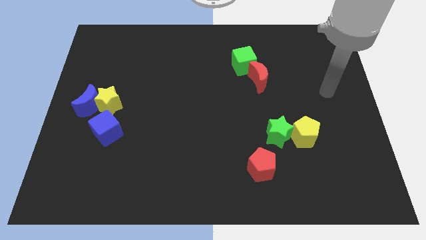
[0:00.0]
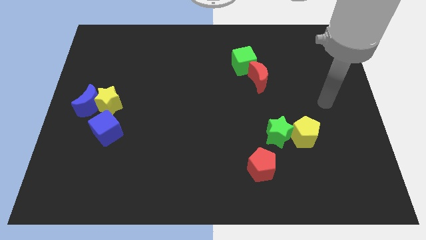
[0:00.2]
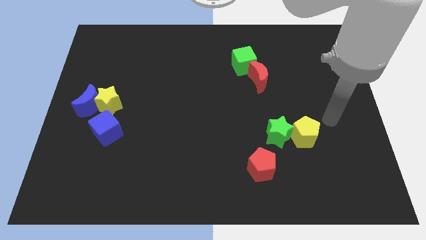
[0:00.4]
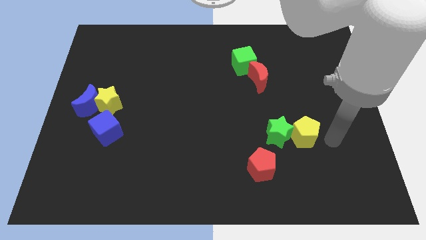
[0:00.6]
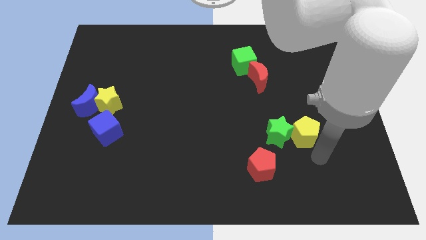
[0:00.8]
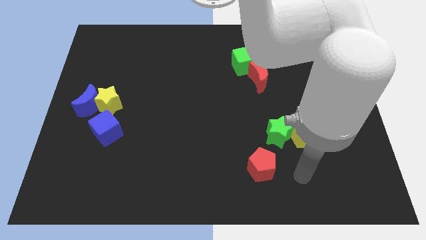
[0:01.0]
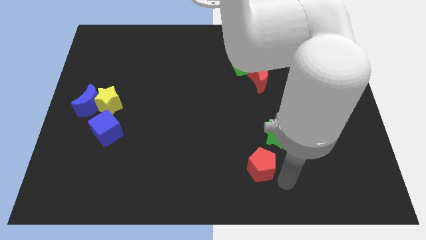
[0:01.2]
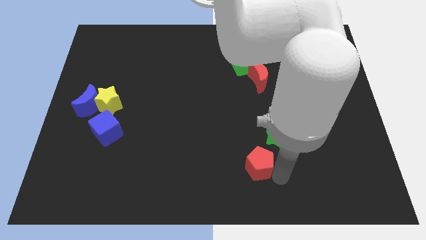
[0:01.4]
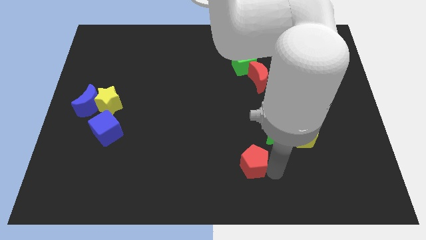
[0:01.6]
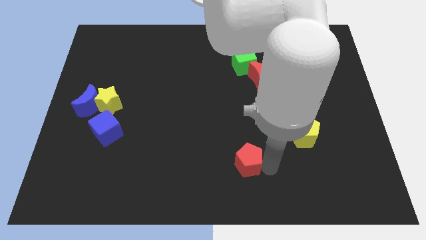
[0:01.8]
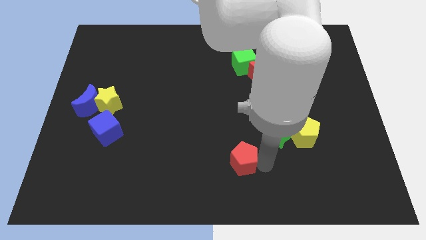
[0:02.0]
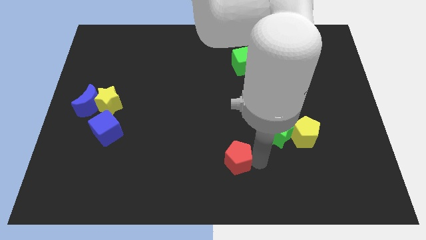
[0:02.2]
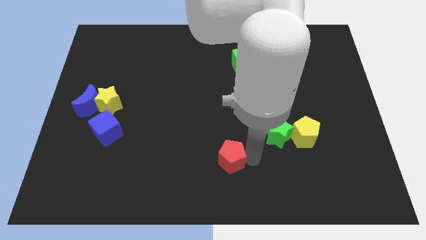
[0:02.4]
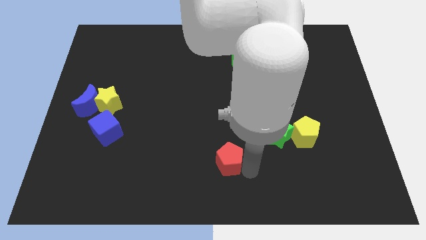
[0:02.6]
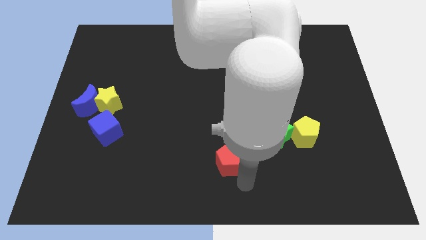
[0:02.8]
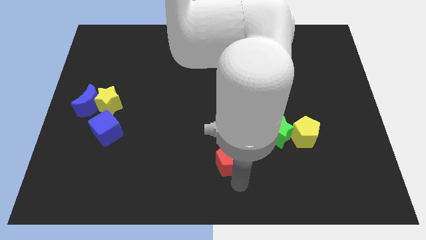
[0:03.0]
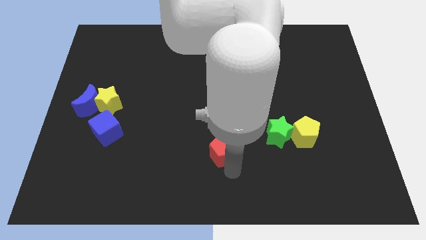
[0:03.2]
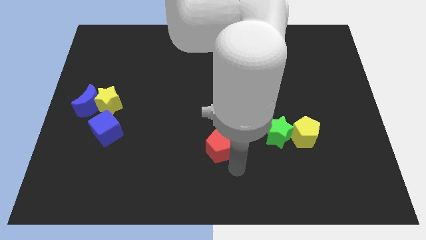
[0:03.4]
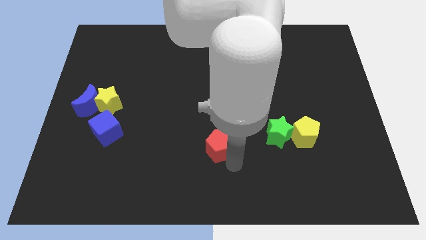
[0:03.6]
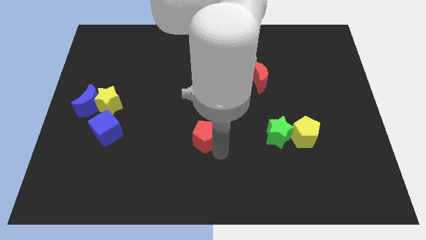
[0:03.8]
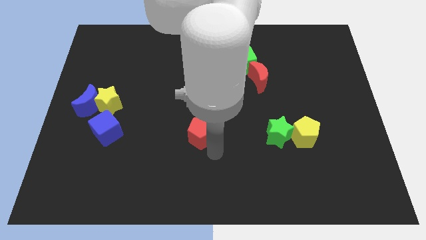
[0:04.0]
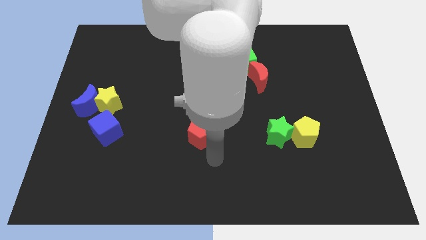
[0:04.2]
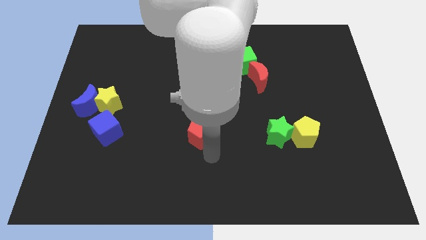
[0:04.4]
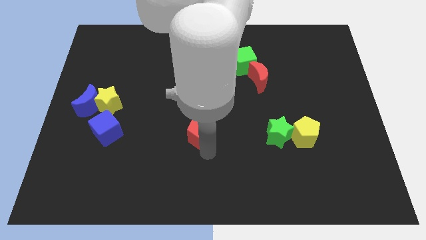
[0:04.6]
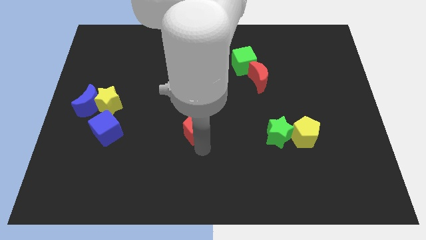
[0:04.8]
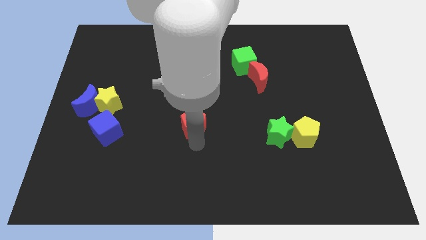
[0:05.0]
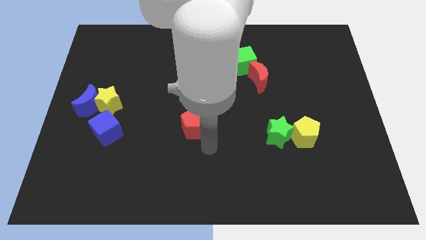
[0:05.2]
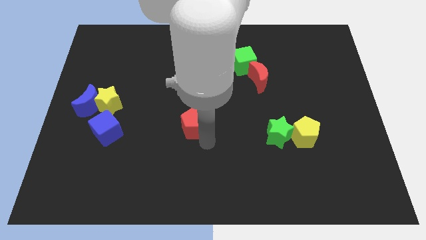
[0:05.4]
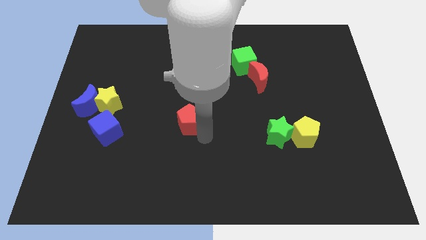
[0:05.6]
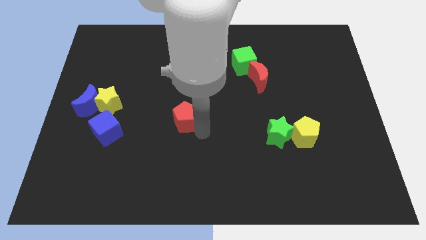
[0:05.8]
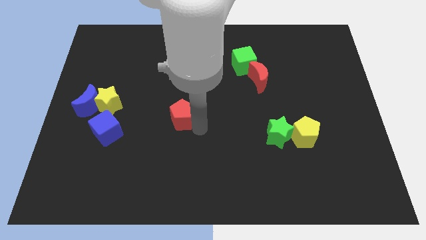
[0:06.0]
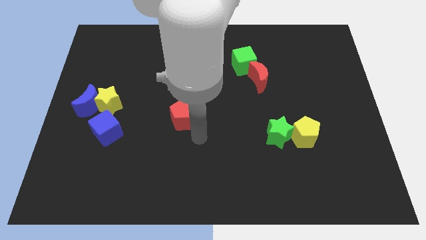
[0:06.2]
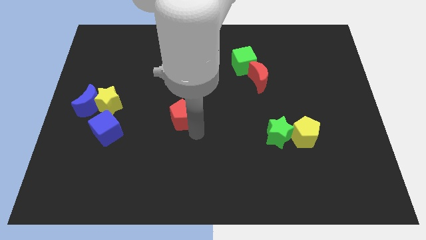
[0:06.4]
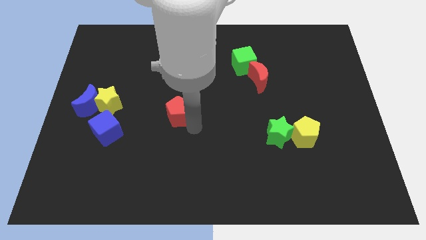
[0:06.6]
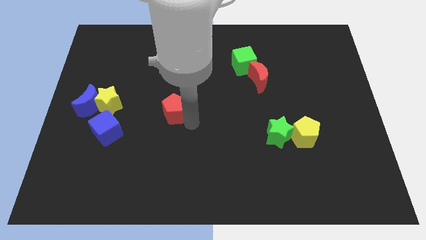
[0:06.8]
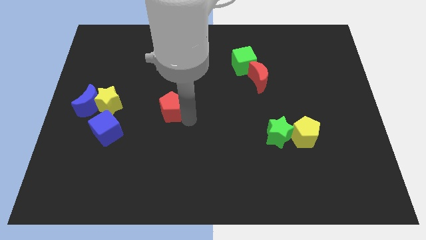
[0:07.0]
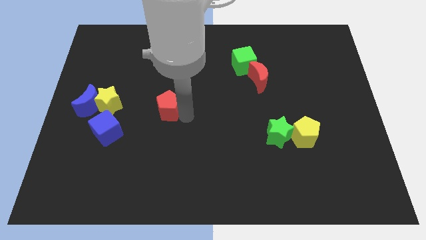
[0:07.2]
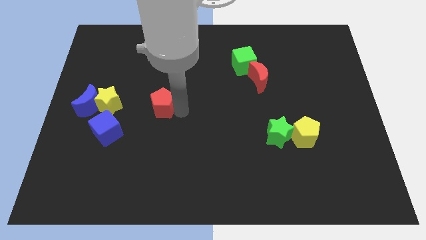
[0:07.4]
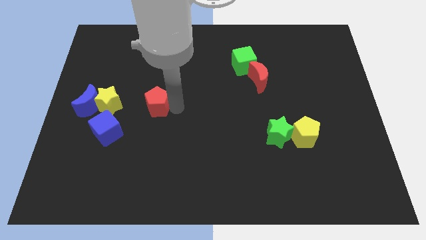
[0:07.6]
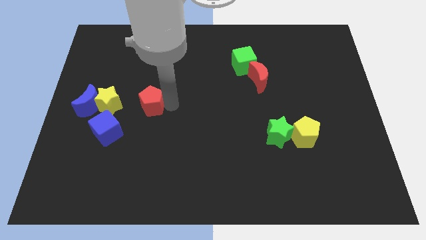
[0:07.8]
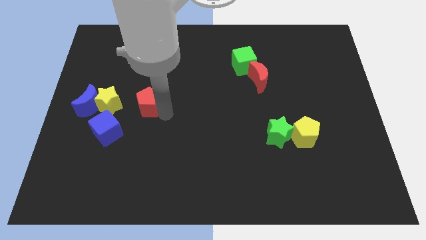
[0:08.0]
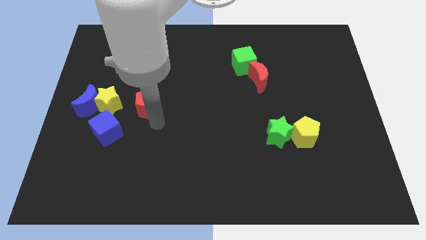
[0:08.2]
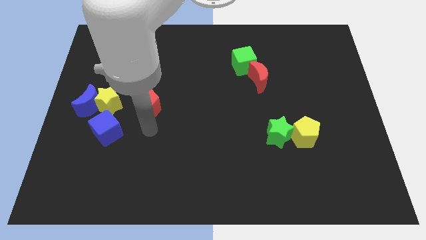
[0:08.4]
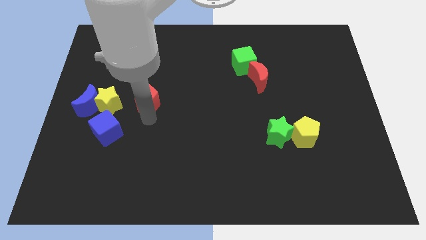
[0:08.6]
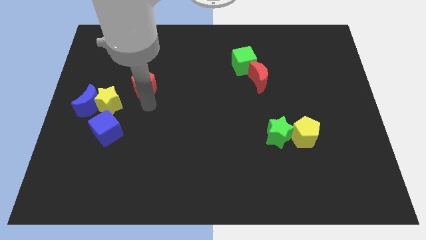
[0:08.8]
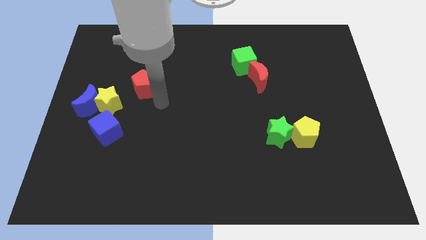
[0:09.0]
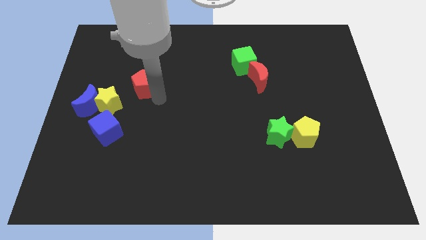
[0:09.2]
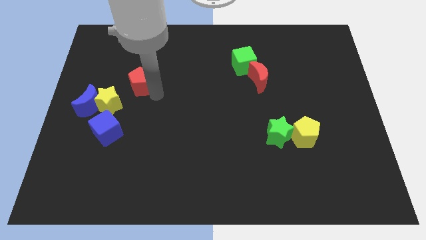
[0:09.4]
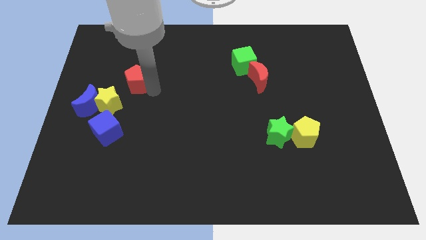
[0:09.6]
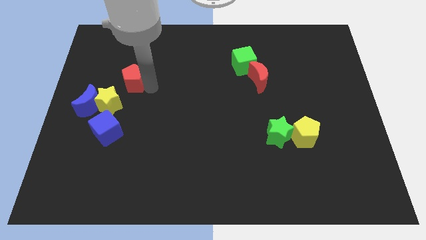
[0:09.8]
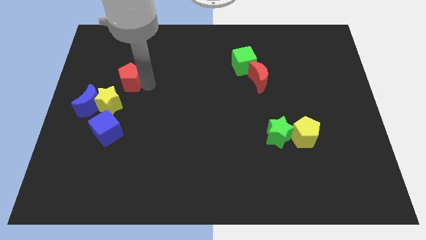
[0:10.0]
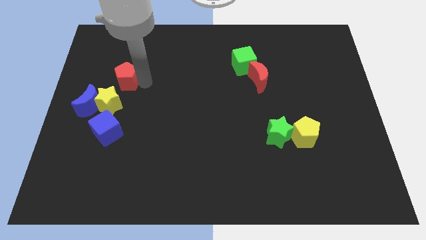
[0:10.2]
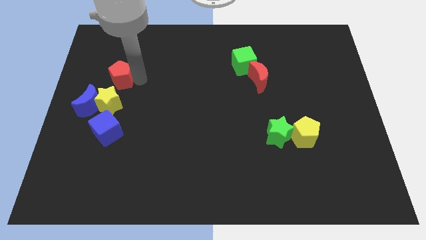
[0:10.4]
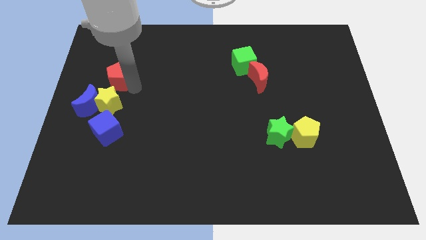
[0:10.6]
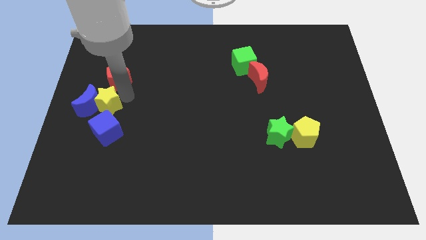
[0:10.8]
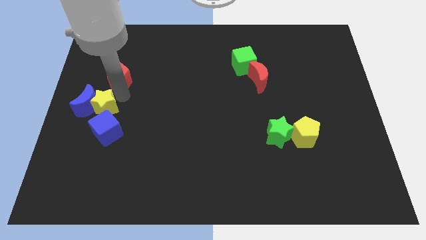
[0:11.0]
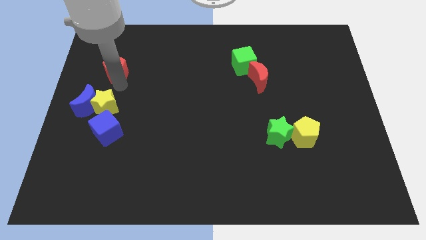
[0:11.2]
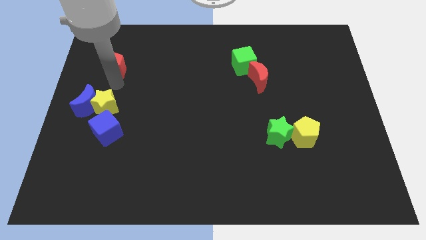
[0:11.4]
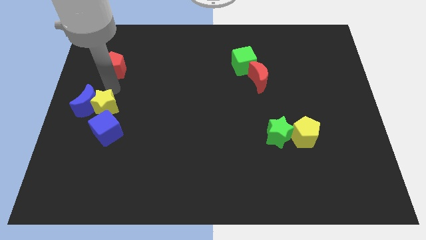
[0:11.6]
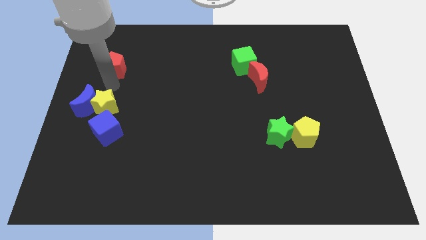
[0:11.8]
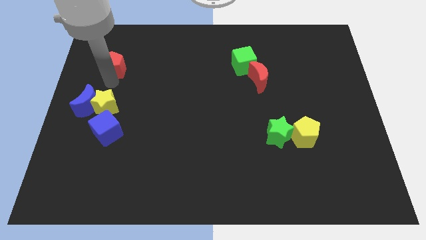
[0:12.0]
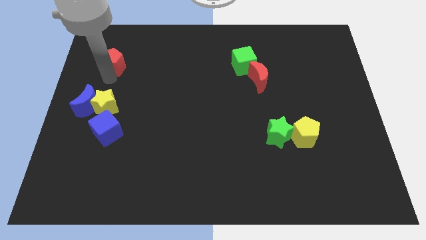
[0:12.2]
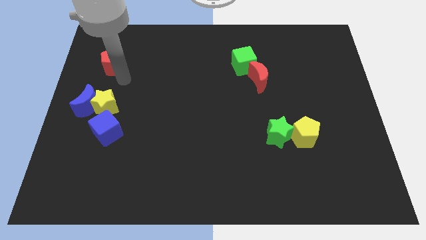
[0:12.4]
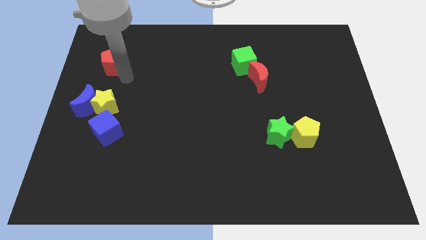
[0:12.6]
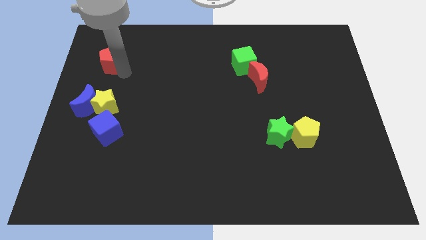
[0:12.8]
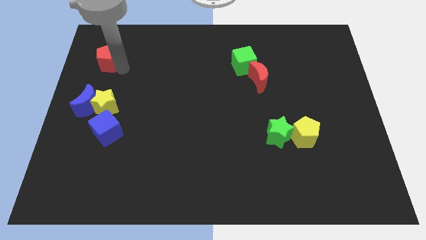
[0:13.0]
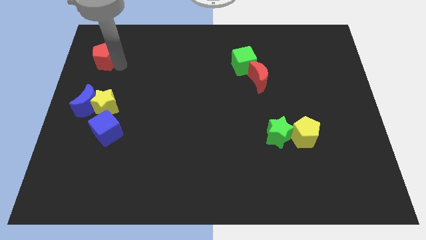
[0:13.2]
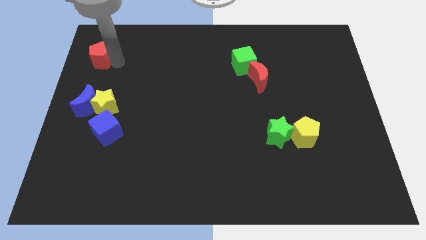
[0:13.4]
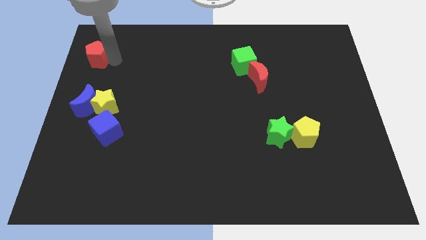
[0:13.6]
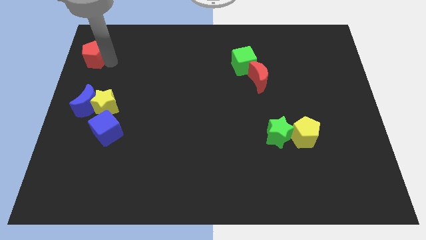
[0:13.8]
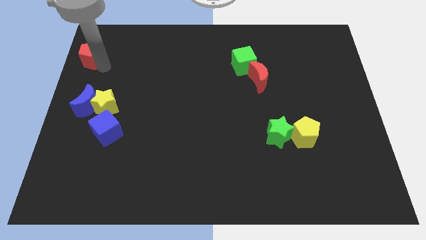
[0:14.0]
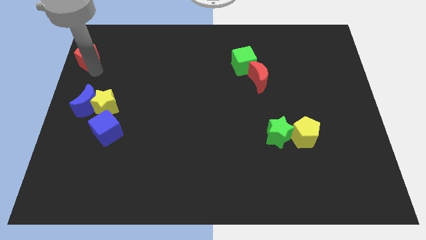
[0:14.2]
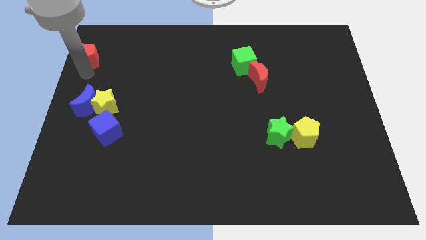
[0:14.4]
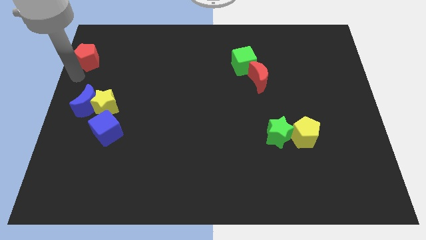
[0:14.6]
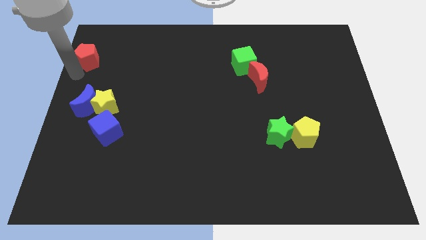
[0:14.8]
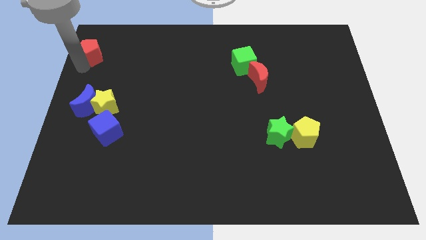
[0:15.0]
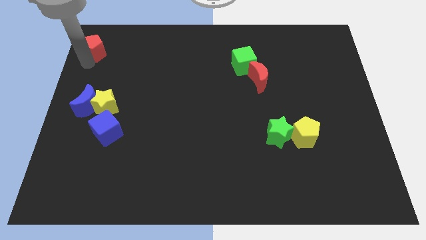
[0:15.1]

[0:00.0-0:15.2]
move the red pentagon to the top left
